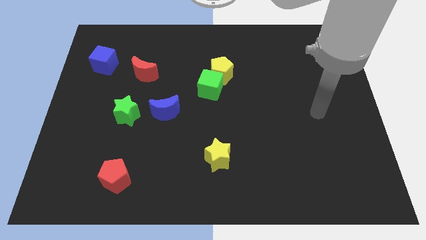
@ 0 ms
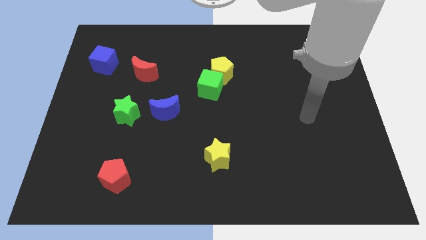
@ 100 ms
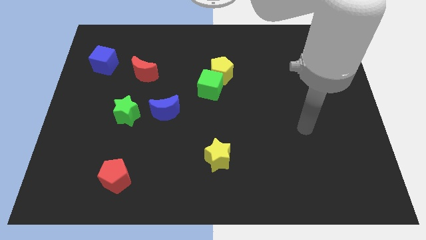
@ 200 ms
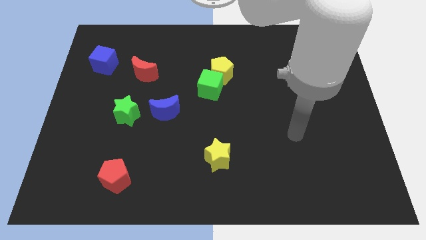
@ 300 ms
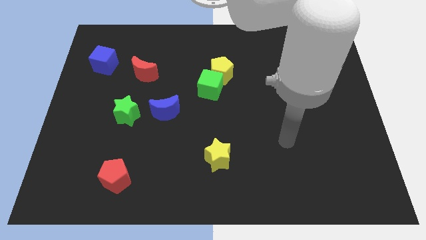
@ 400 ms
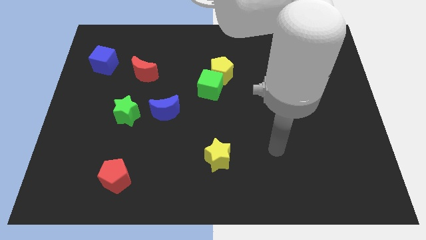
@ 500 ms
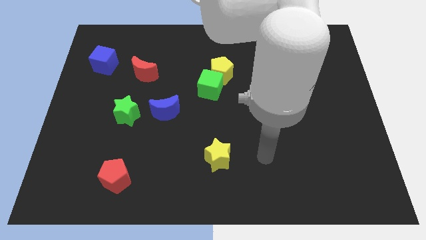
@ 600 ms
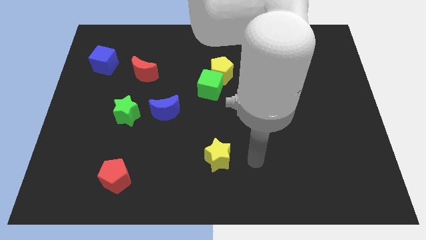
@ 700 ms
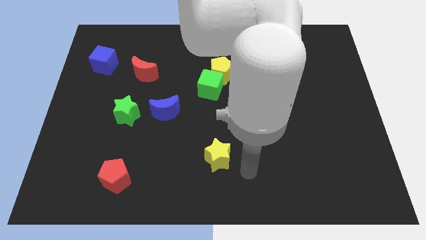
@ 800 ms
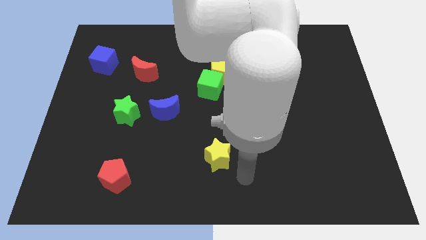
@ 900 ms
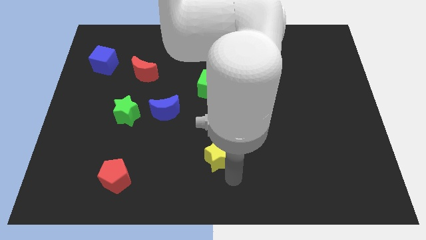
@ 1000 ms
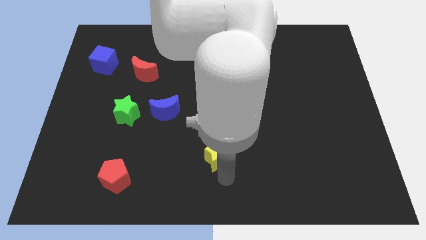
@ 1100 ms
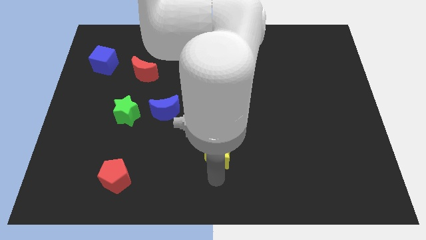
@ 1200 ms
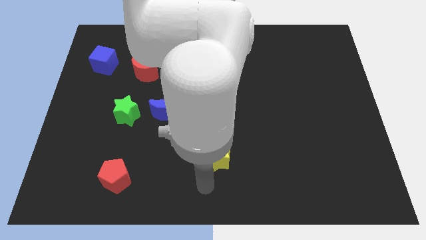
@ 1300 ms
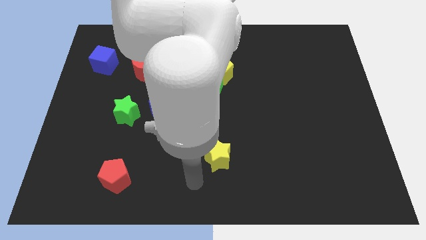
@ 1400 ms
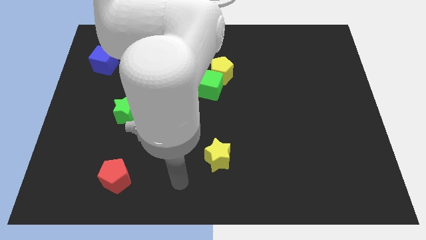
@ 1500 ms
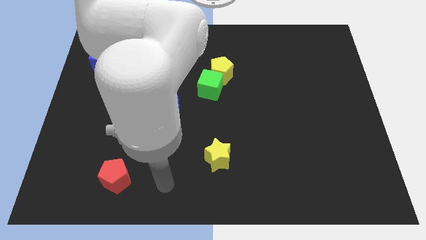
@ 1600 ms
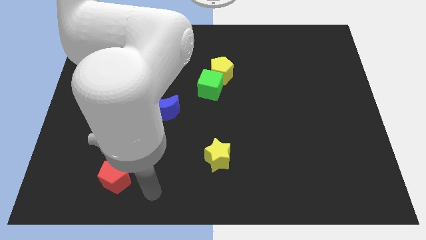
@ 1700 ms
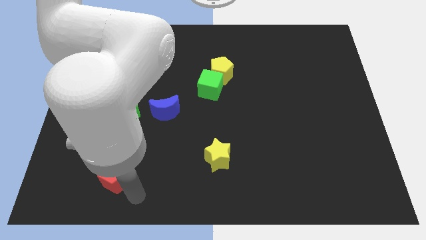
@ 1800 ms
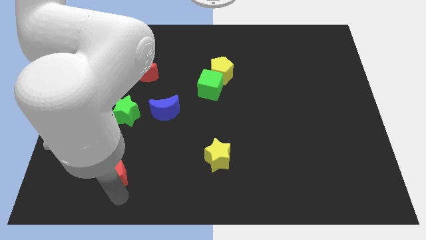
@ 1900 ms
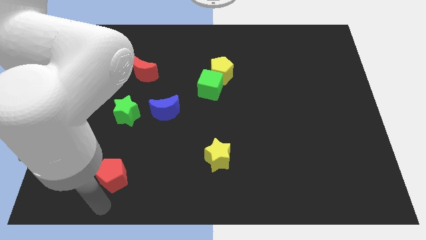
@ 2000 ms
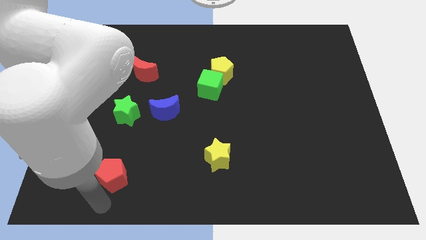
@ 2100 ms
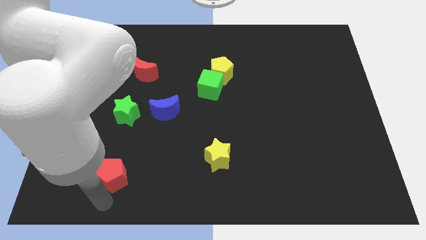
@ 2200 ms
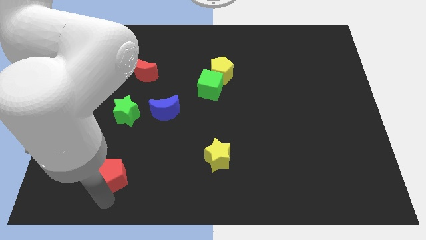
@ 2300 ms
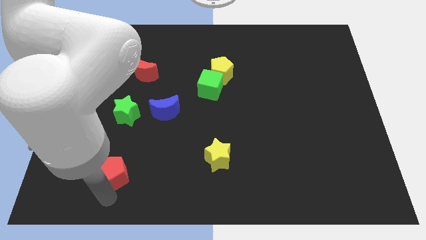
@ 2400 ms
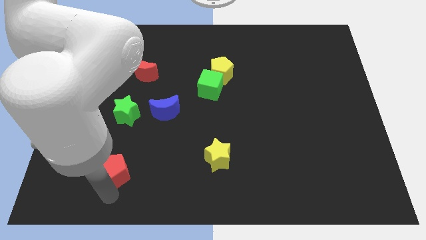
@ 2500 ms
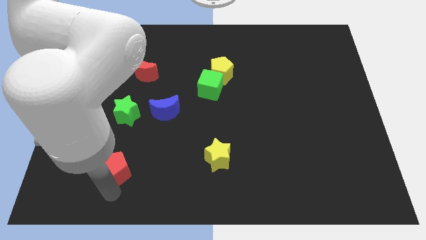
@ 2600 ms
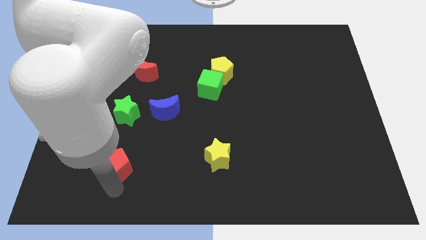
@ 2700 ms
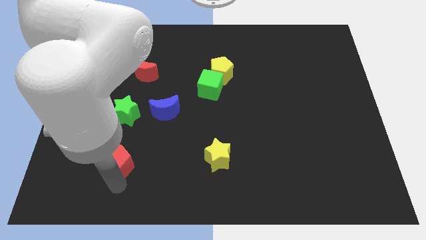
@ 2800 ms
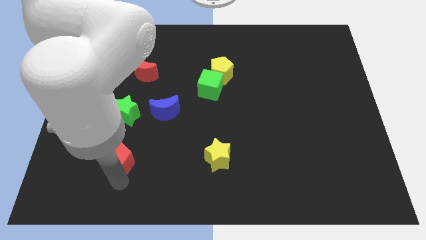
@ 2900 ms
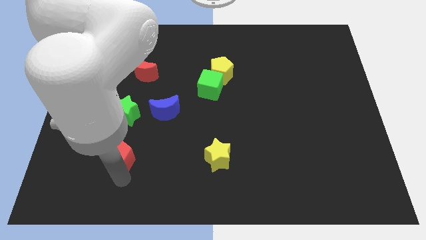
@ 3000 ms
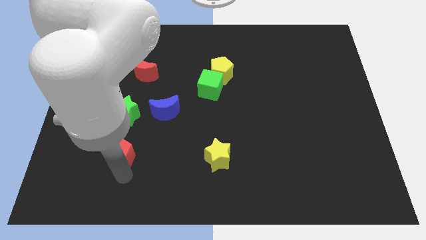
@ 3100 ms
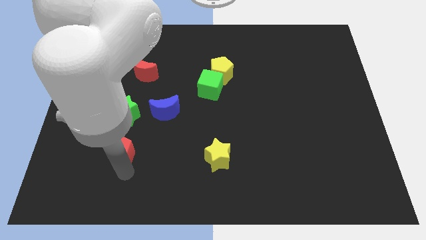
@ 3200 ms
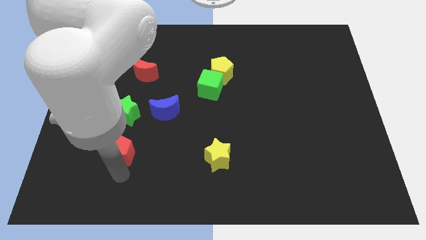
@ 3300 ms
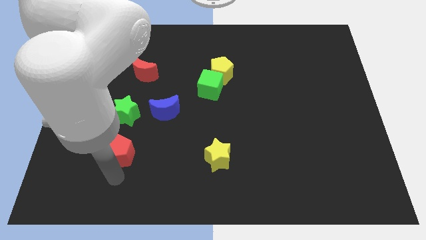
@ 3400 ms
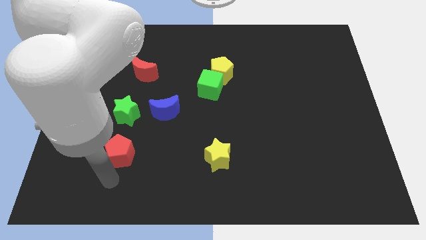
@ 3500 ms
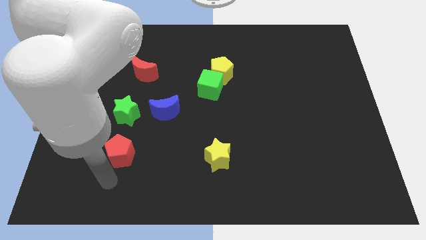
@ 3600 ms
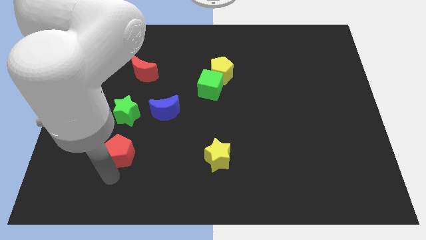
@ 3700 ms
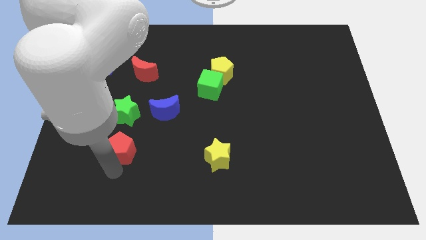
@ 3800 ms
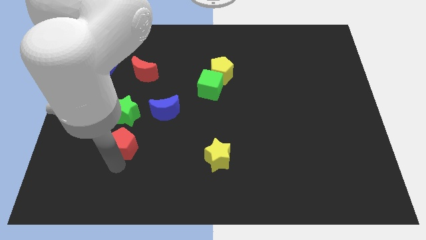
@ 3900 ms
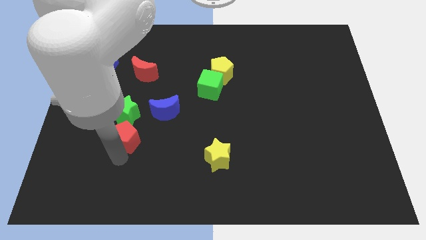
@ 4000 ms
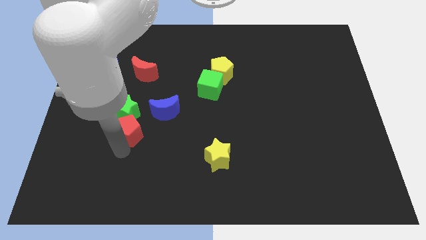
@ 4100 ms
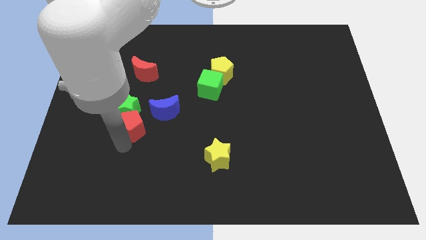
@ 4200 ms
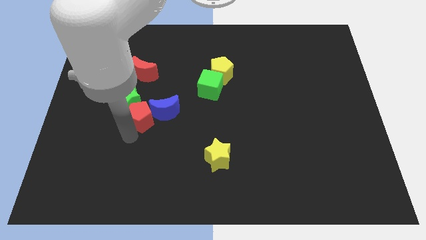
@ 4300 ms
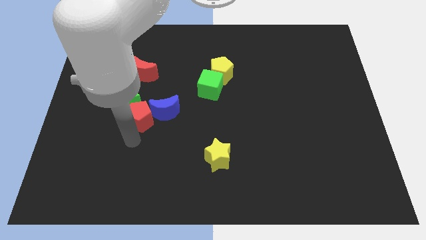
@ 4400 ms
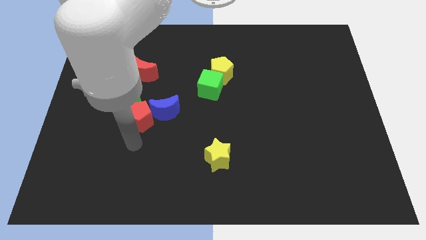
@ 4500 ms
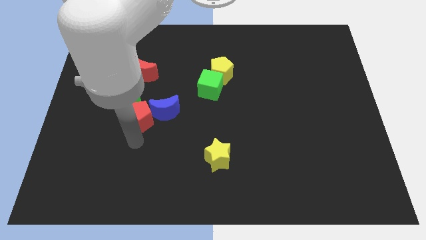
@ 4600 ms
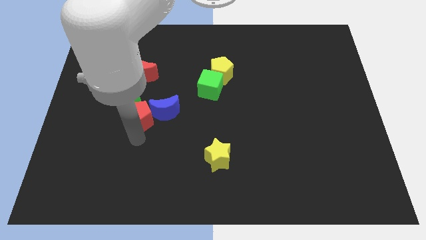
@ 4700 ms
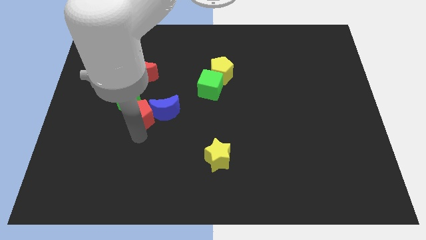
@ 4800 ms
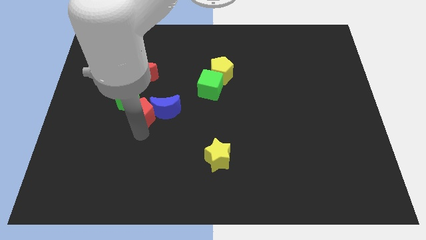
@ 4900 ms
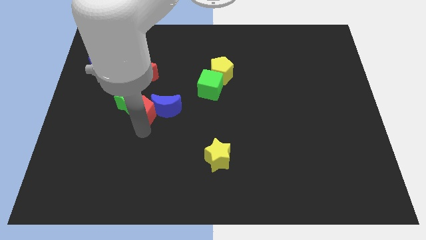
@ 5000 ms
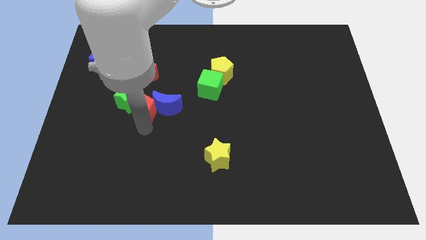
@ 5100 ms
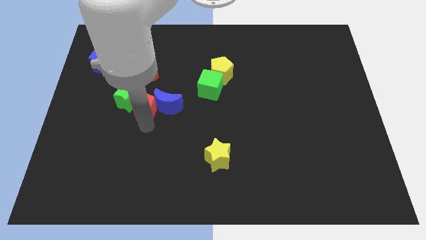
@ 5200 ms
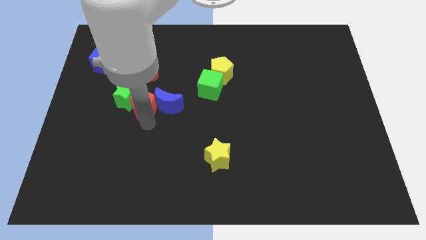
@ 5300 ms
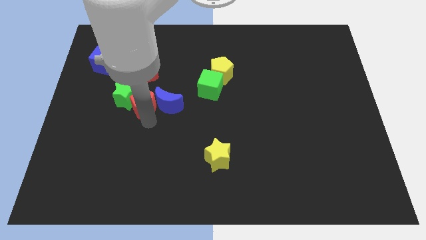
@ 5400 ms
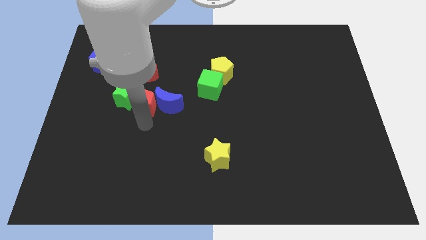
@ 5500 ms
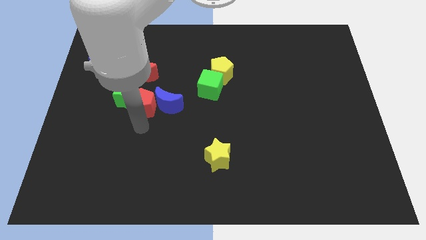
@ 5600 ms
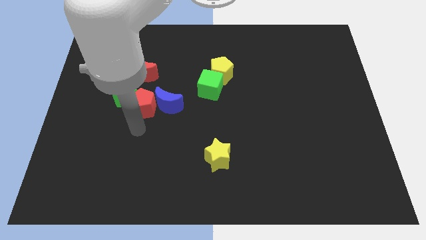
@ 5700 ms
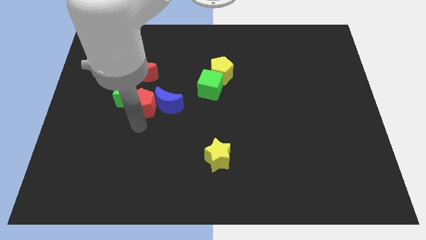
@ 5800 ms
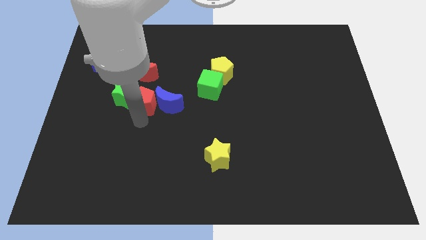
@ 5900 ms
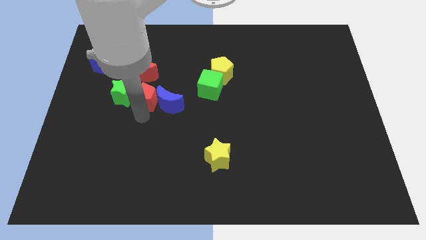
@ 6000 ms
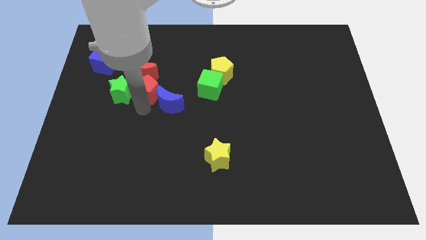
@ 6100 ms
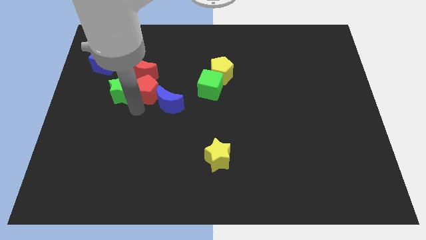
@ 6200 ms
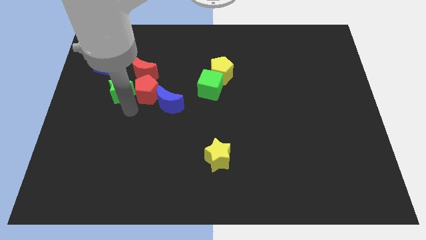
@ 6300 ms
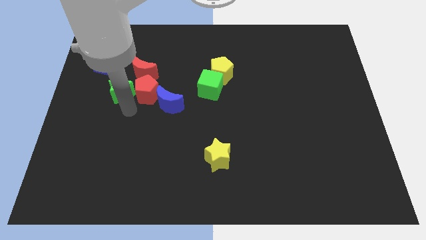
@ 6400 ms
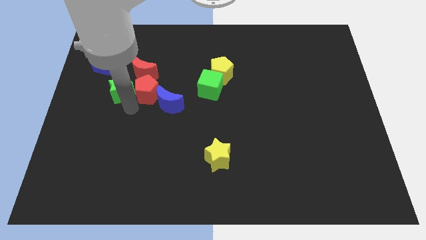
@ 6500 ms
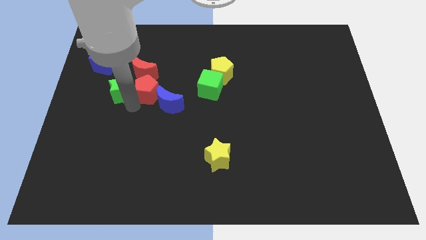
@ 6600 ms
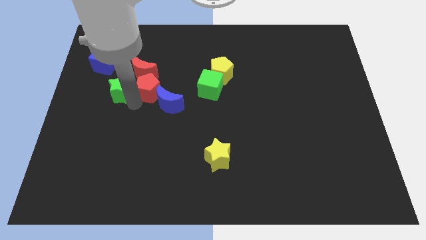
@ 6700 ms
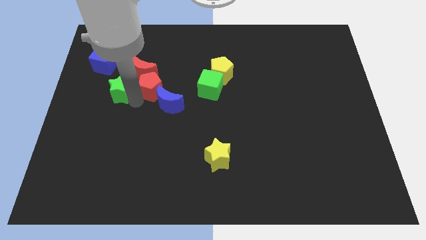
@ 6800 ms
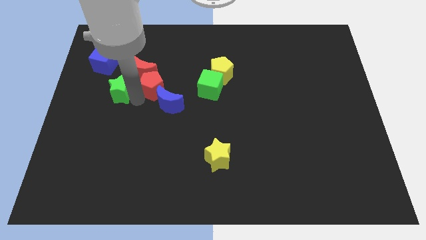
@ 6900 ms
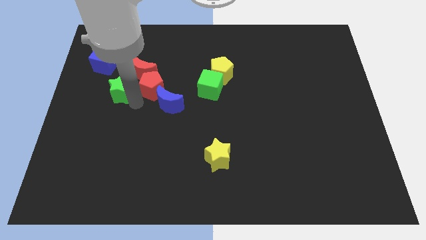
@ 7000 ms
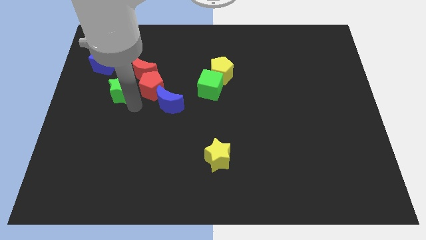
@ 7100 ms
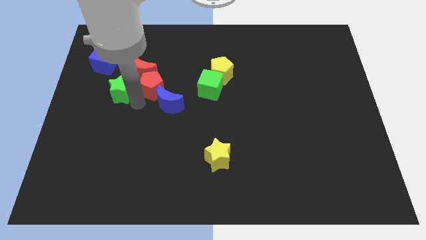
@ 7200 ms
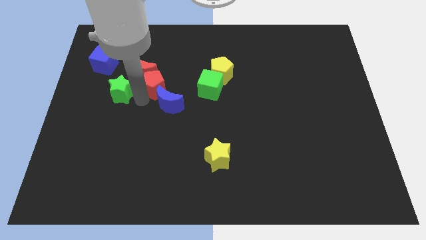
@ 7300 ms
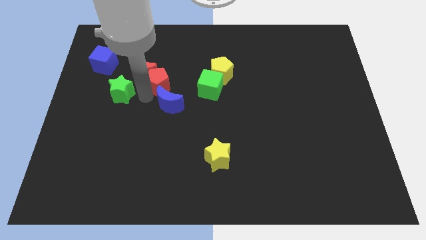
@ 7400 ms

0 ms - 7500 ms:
put the red pentagon right of the red moon

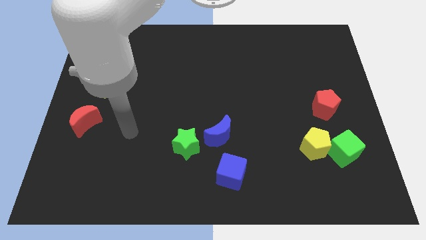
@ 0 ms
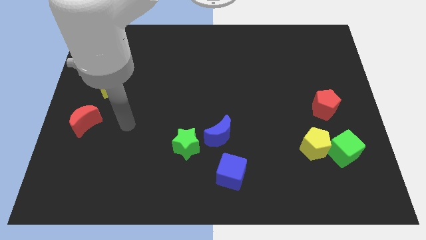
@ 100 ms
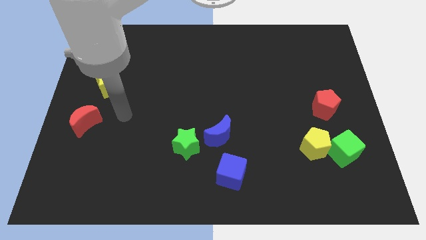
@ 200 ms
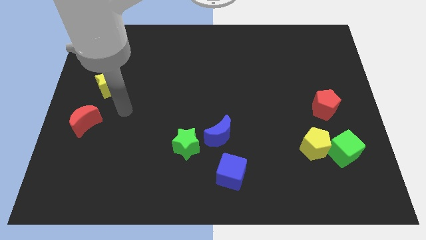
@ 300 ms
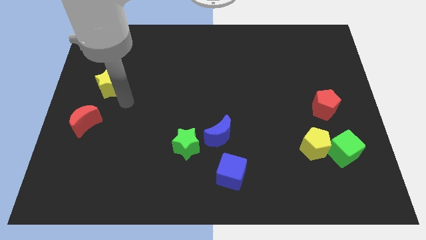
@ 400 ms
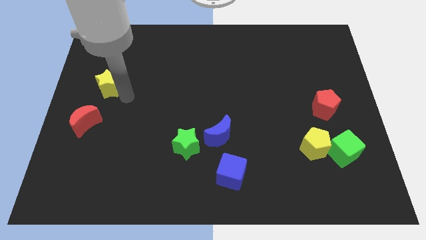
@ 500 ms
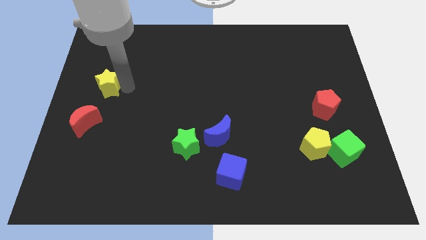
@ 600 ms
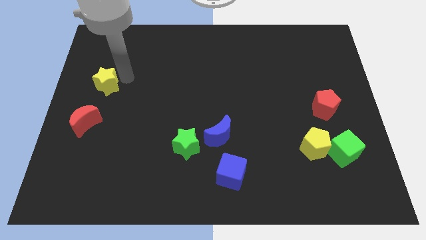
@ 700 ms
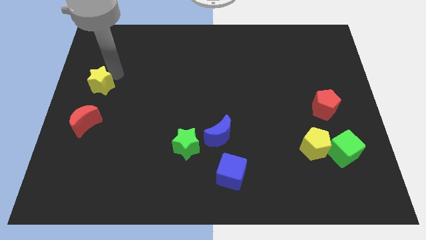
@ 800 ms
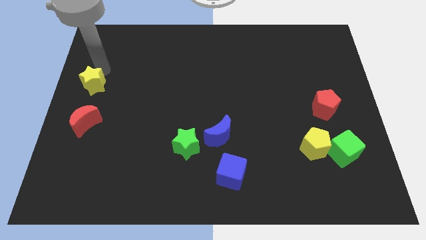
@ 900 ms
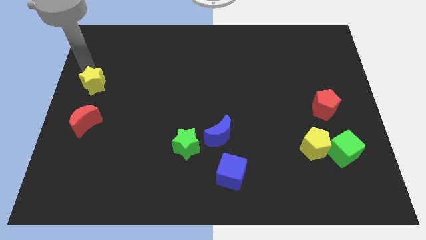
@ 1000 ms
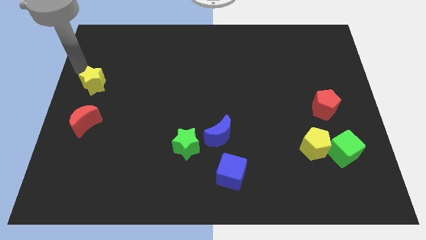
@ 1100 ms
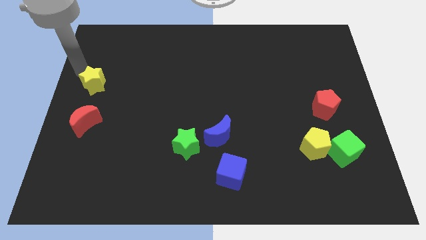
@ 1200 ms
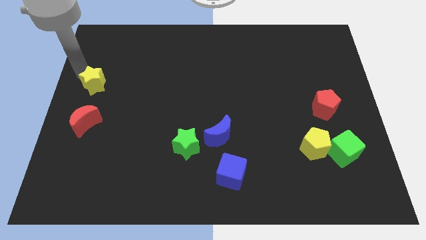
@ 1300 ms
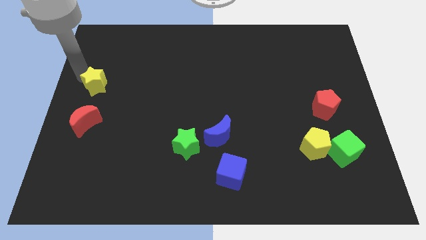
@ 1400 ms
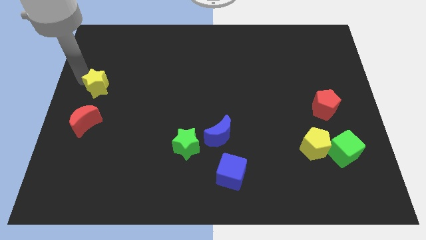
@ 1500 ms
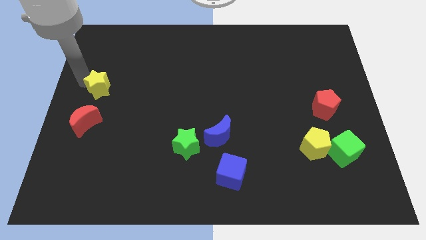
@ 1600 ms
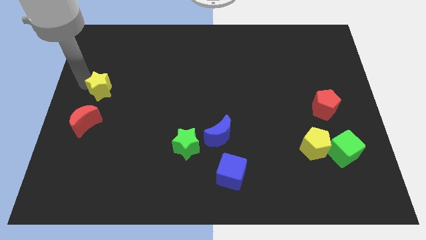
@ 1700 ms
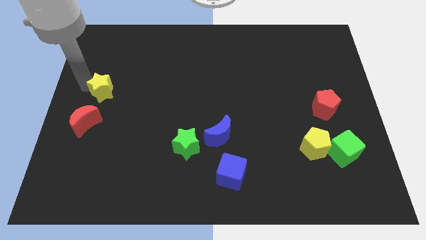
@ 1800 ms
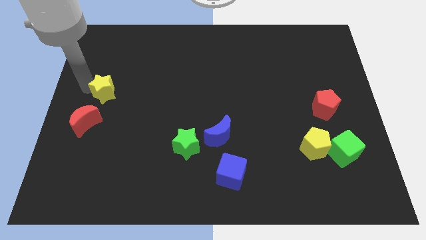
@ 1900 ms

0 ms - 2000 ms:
slide the yellow star diagonally up and to the right of the red moon
